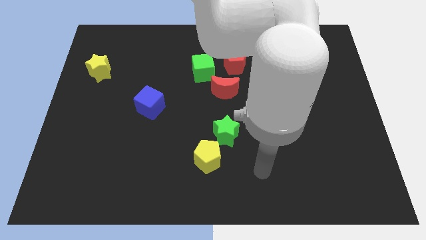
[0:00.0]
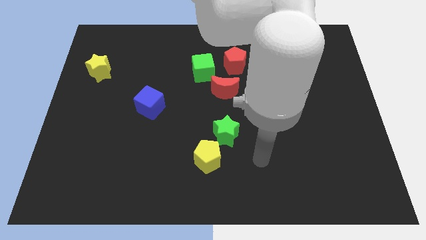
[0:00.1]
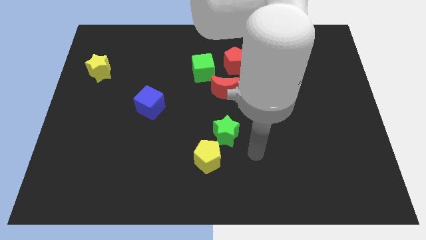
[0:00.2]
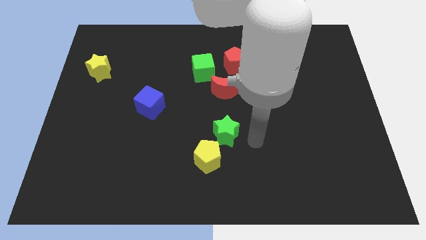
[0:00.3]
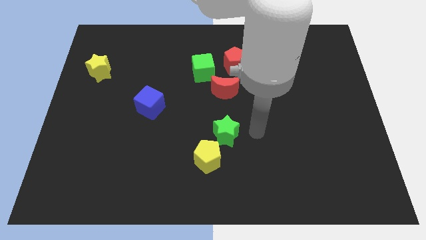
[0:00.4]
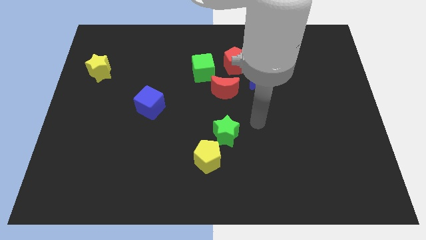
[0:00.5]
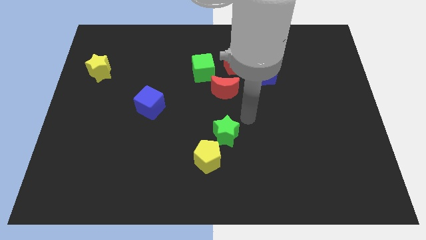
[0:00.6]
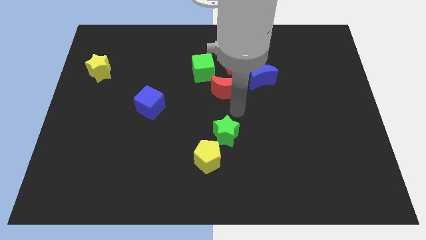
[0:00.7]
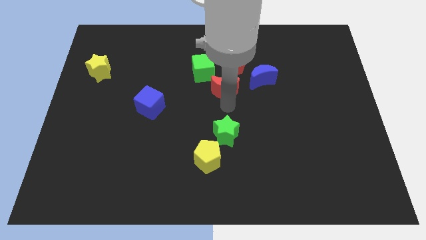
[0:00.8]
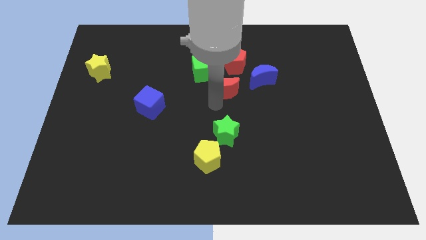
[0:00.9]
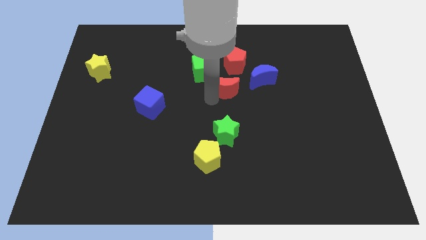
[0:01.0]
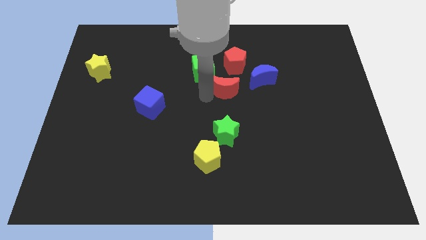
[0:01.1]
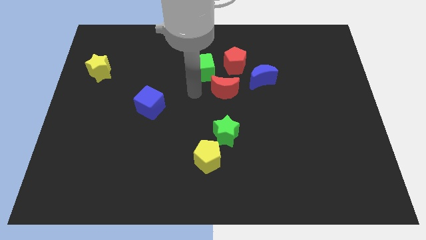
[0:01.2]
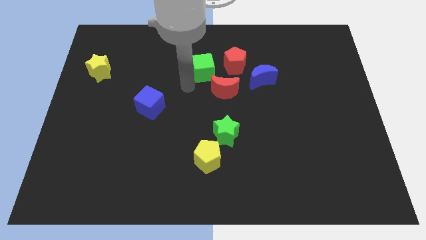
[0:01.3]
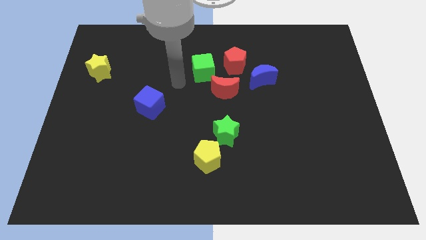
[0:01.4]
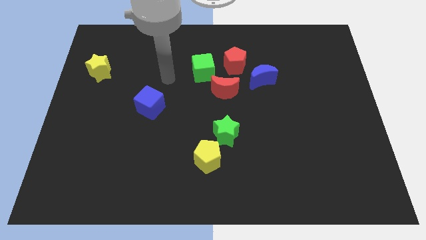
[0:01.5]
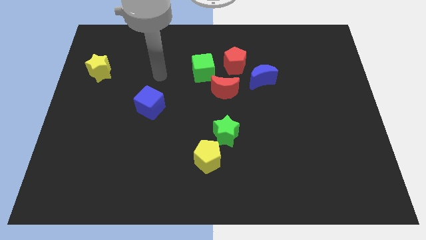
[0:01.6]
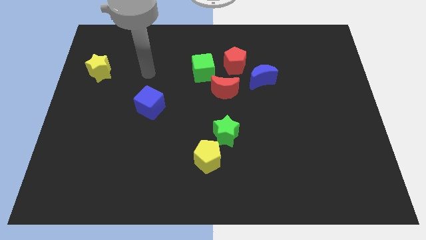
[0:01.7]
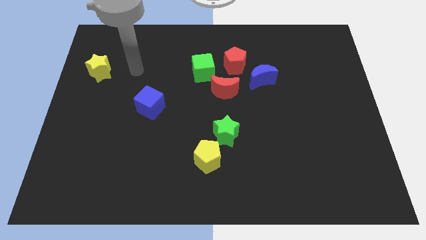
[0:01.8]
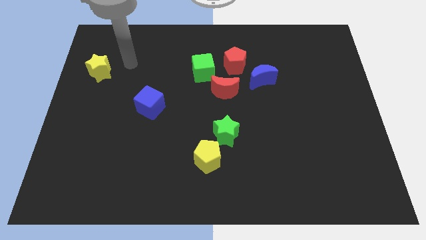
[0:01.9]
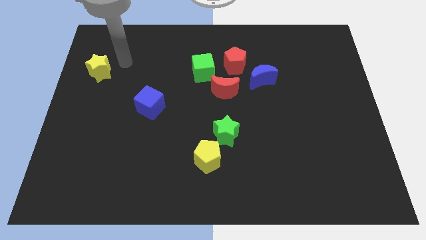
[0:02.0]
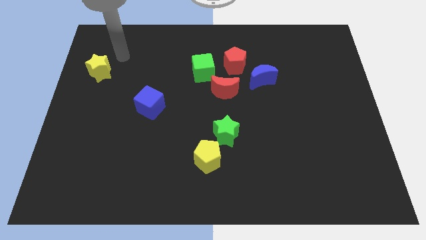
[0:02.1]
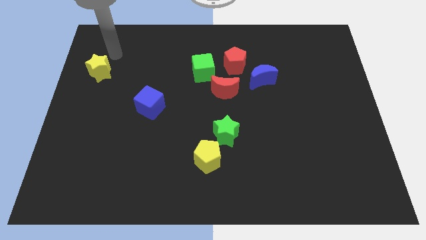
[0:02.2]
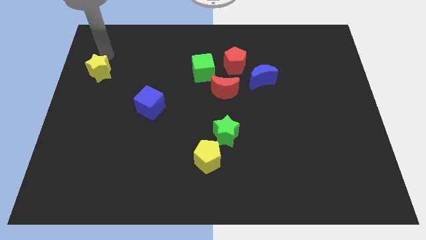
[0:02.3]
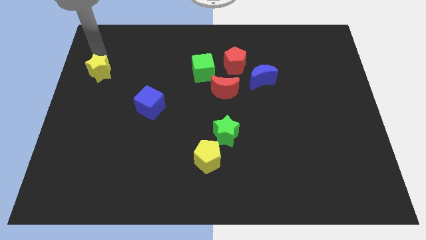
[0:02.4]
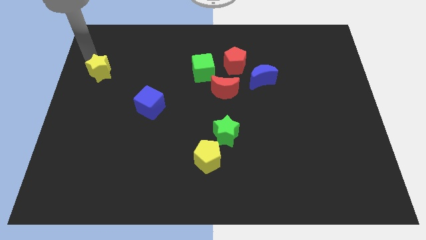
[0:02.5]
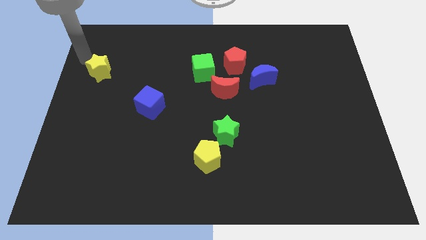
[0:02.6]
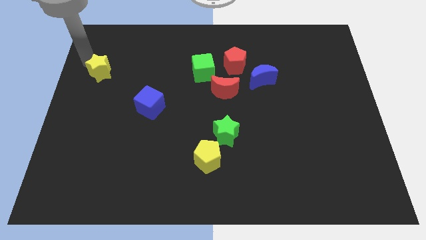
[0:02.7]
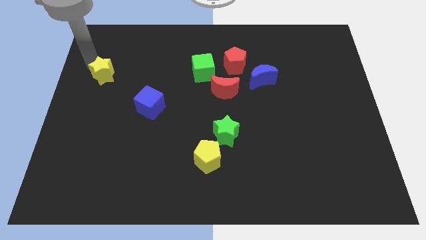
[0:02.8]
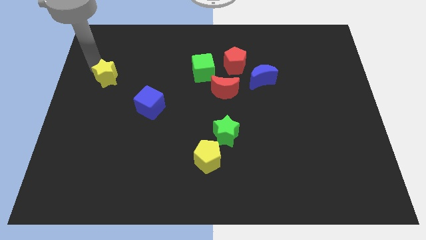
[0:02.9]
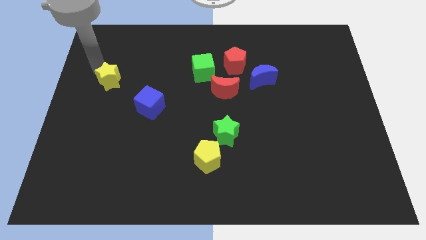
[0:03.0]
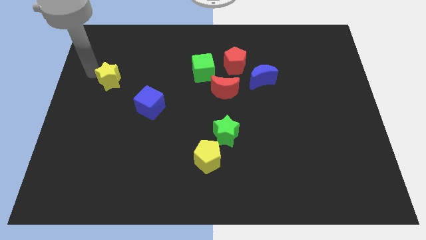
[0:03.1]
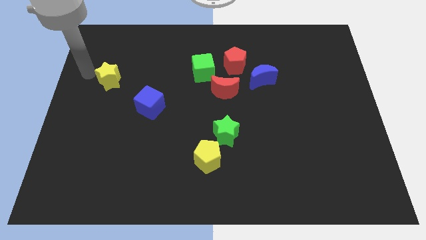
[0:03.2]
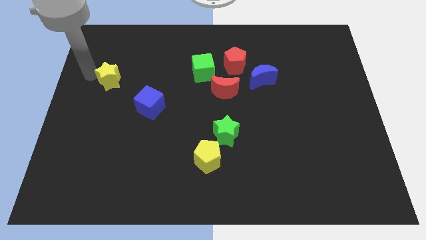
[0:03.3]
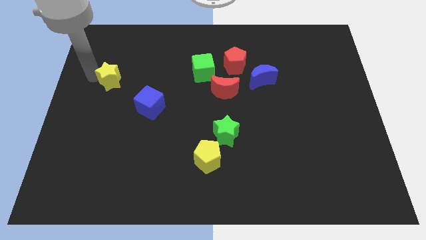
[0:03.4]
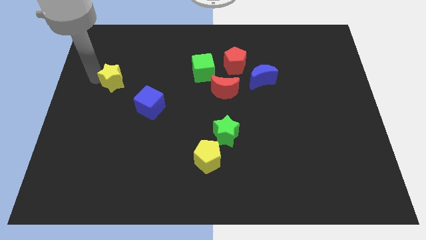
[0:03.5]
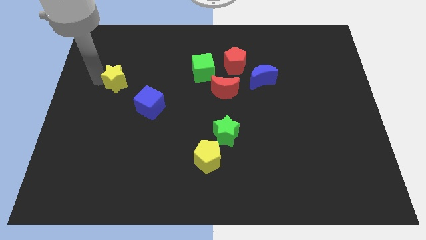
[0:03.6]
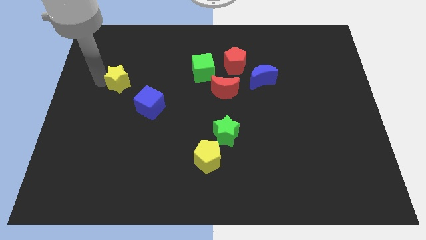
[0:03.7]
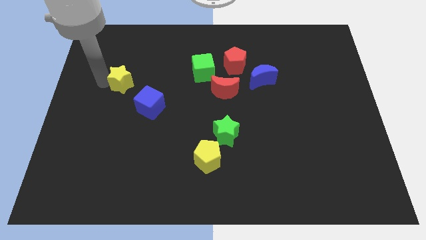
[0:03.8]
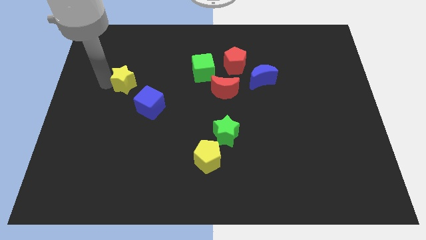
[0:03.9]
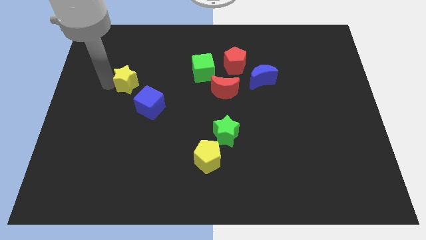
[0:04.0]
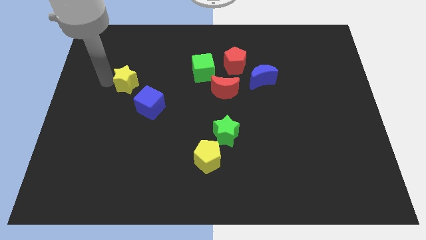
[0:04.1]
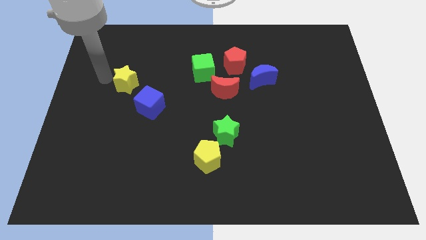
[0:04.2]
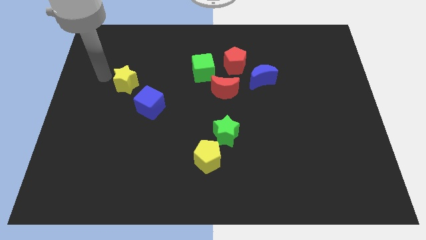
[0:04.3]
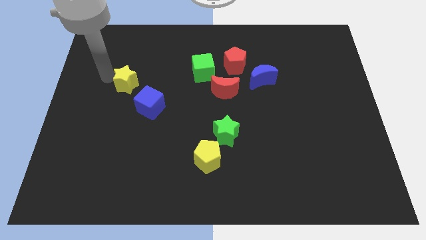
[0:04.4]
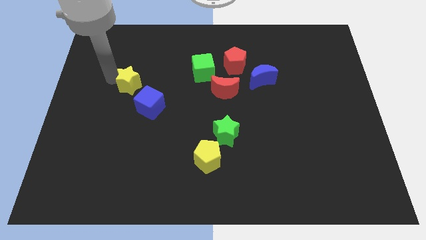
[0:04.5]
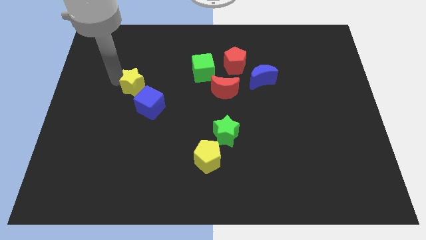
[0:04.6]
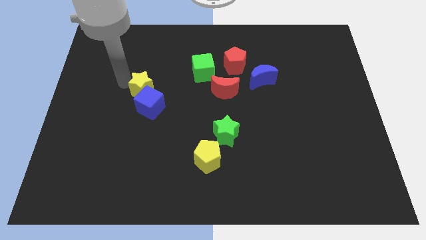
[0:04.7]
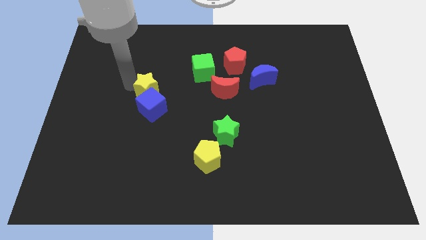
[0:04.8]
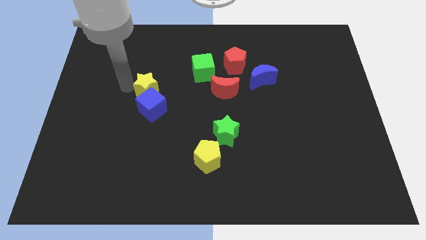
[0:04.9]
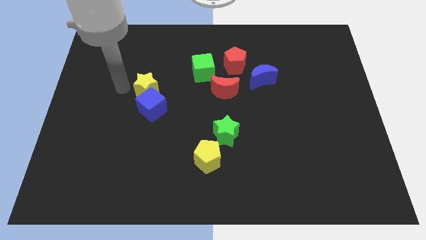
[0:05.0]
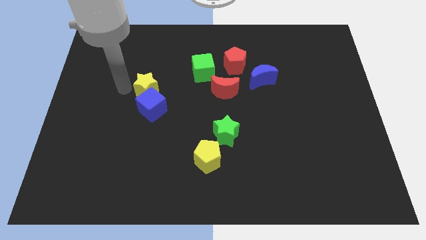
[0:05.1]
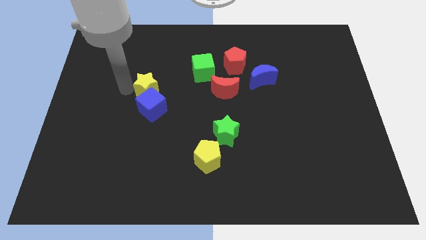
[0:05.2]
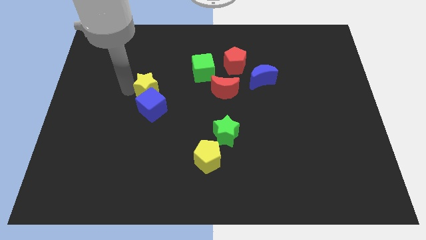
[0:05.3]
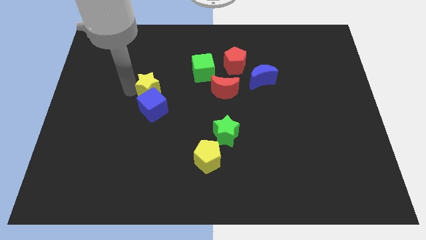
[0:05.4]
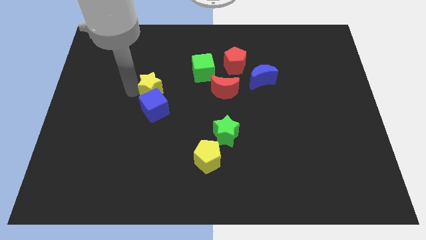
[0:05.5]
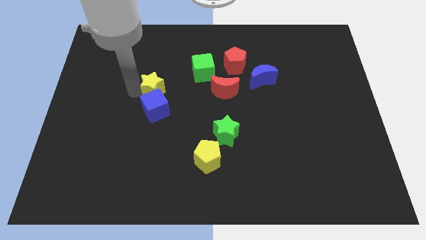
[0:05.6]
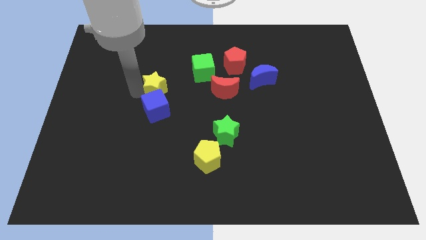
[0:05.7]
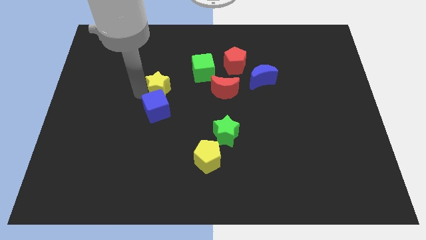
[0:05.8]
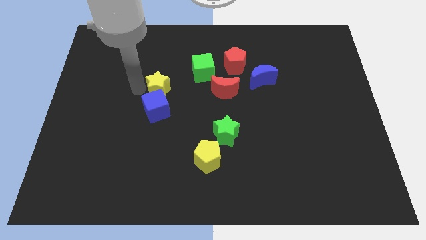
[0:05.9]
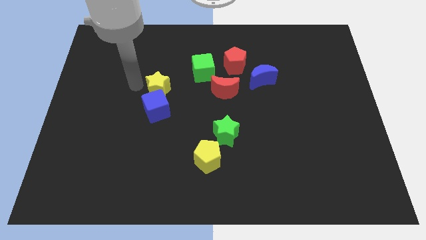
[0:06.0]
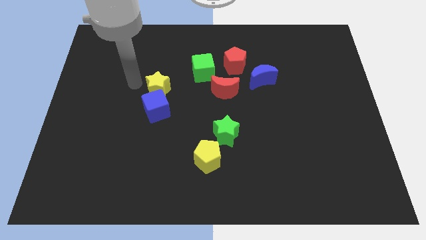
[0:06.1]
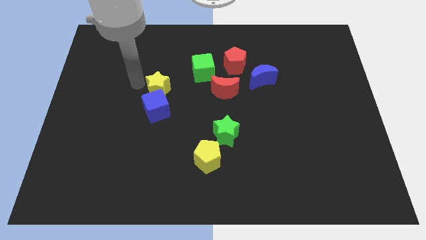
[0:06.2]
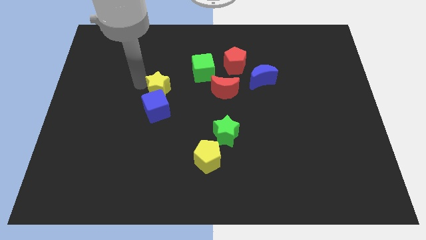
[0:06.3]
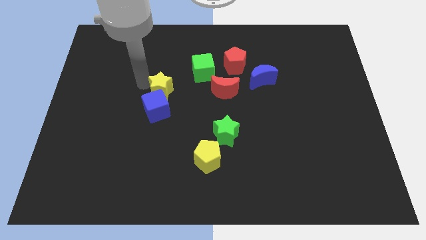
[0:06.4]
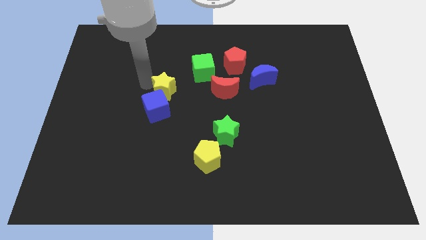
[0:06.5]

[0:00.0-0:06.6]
put the yellow star to the center

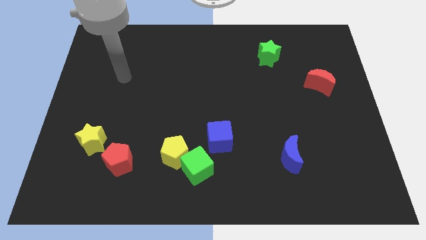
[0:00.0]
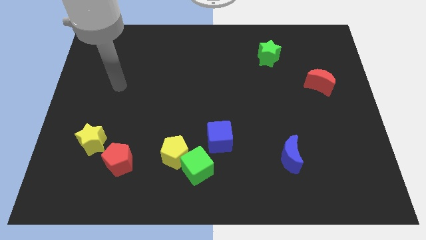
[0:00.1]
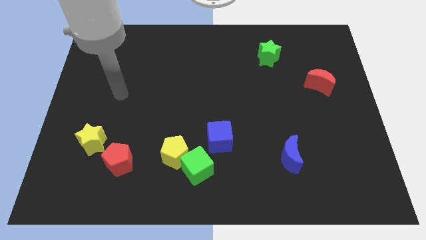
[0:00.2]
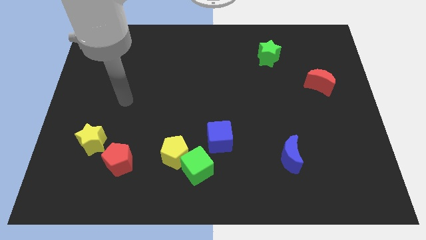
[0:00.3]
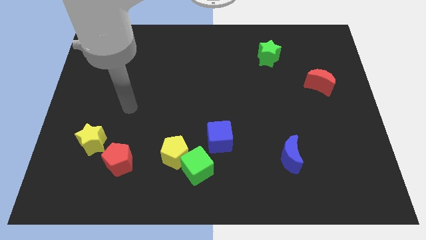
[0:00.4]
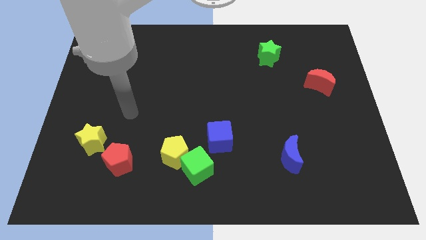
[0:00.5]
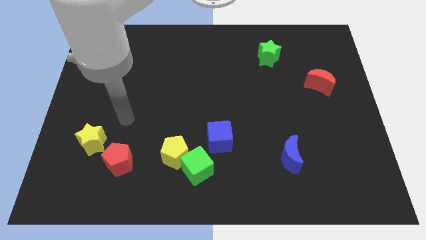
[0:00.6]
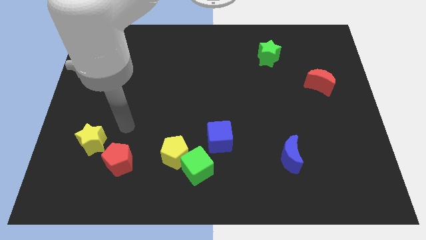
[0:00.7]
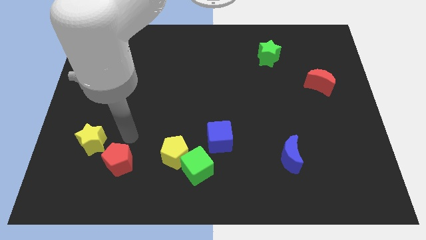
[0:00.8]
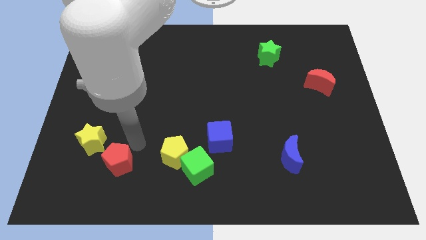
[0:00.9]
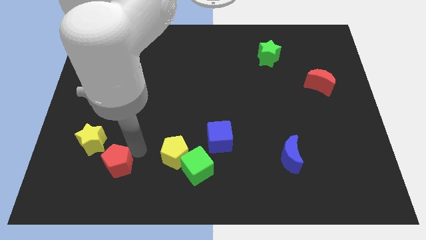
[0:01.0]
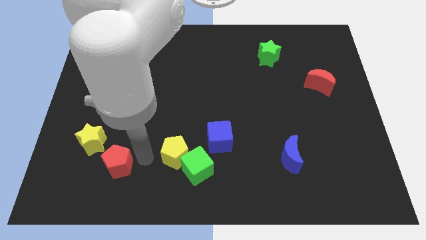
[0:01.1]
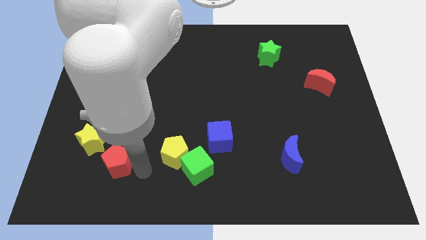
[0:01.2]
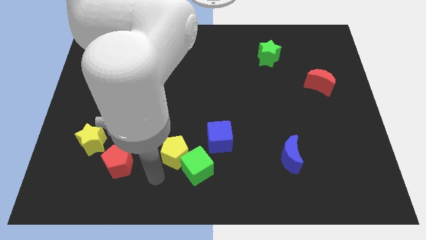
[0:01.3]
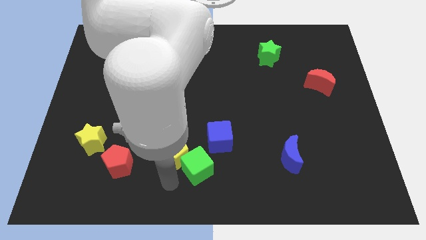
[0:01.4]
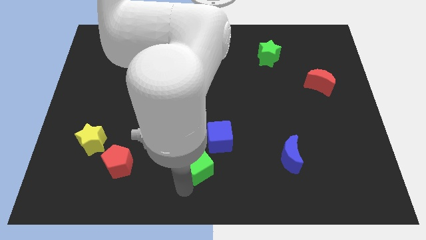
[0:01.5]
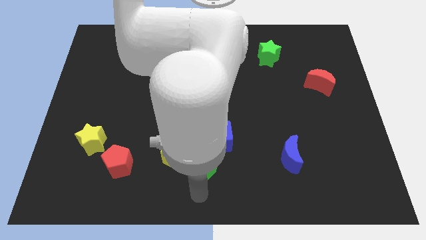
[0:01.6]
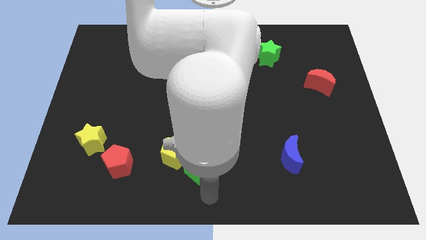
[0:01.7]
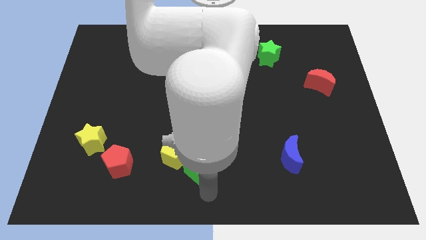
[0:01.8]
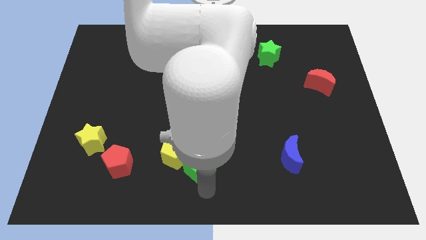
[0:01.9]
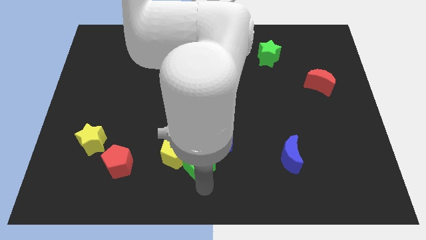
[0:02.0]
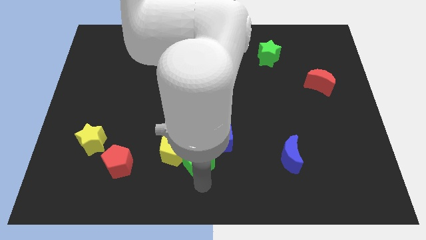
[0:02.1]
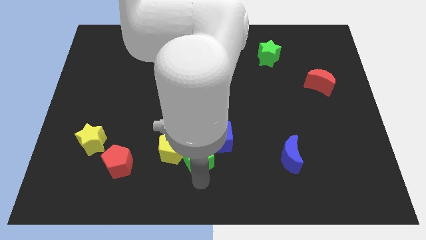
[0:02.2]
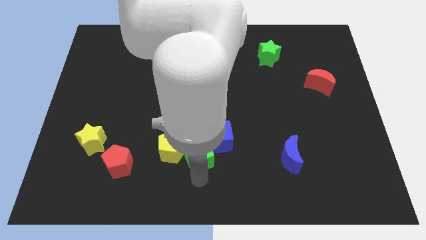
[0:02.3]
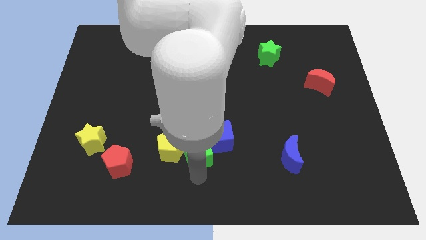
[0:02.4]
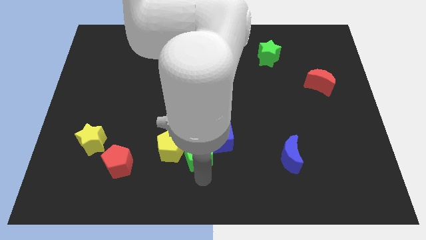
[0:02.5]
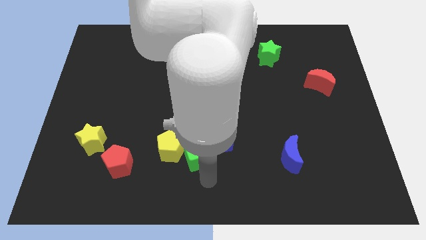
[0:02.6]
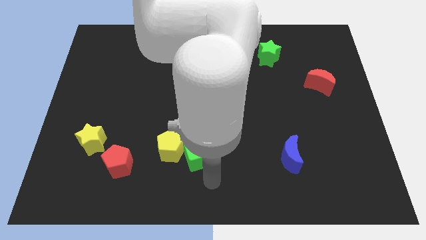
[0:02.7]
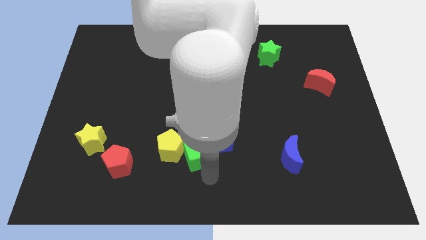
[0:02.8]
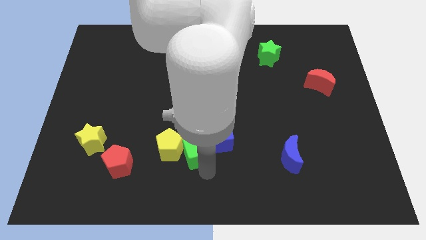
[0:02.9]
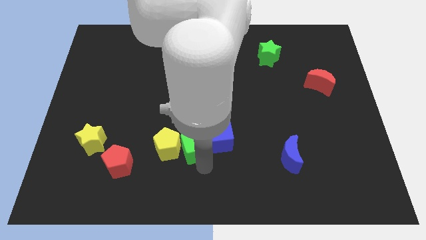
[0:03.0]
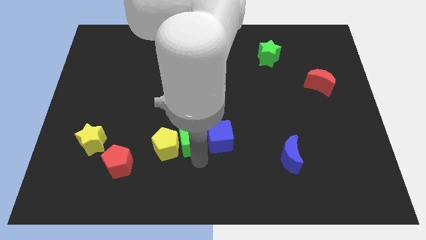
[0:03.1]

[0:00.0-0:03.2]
move the green cube to the center
